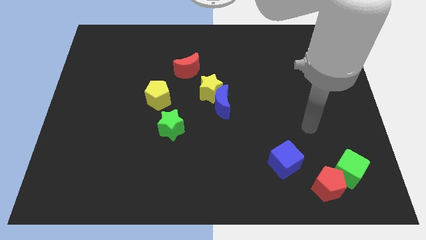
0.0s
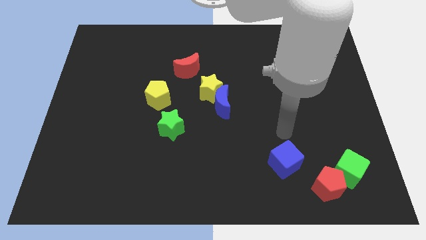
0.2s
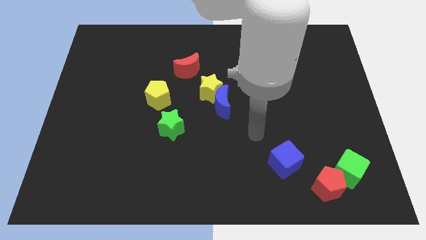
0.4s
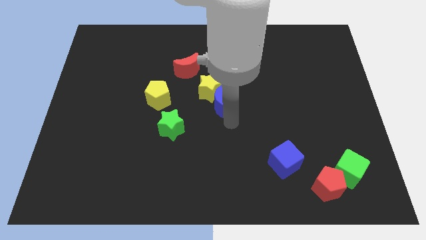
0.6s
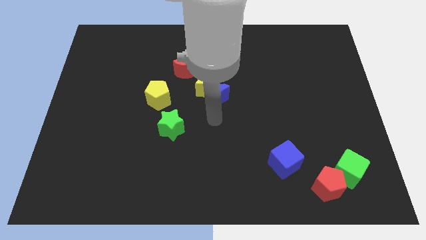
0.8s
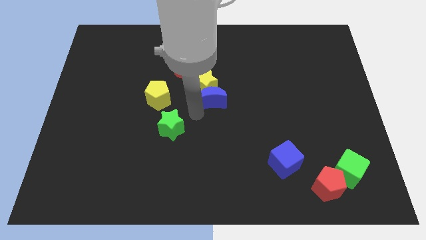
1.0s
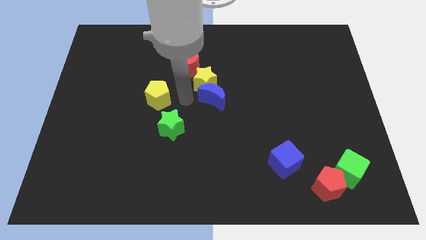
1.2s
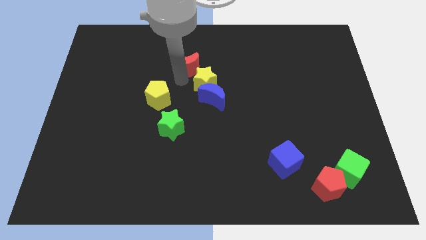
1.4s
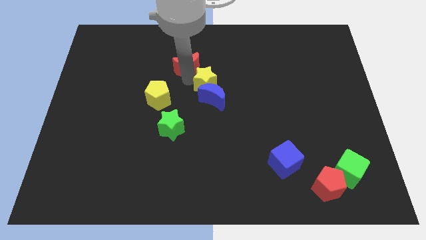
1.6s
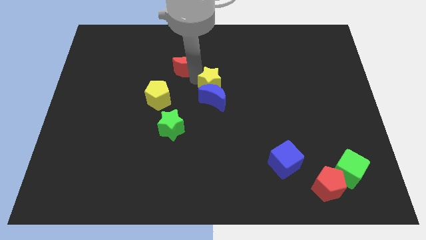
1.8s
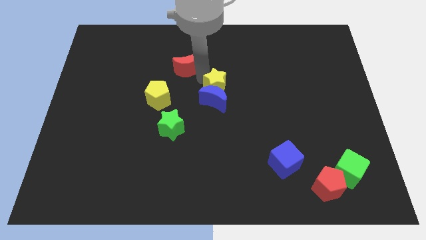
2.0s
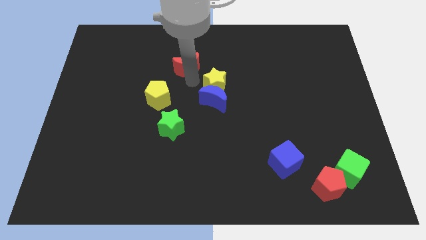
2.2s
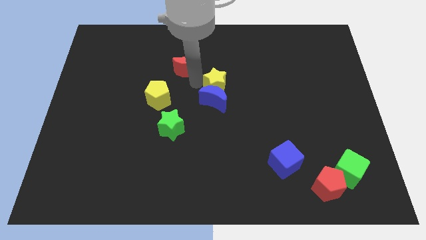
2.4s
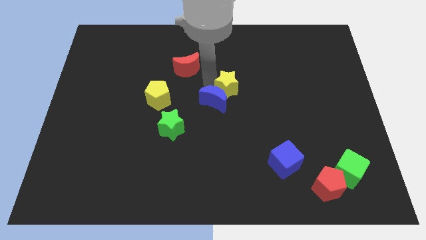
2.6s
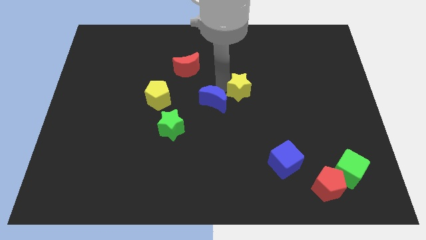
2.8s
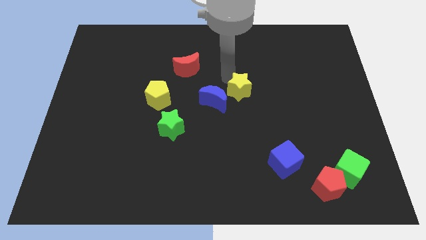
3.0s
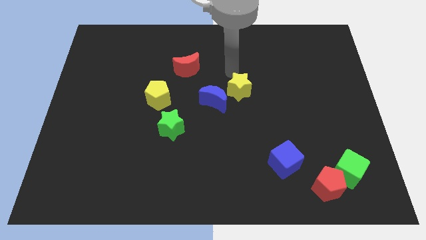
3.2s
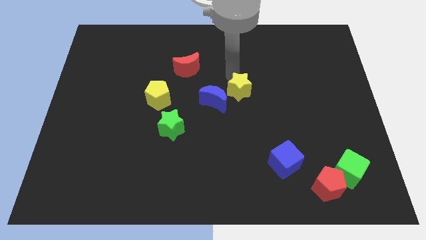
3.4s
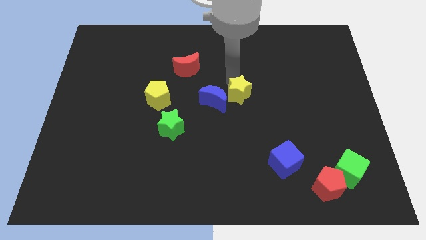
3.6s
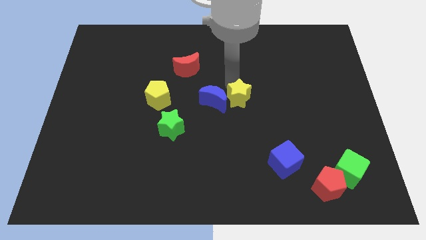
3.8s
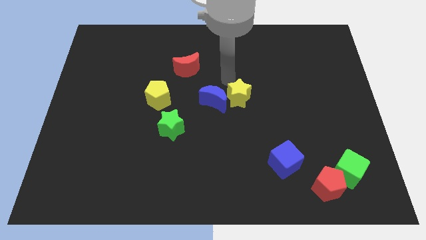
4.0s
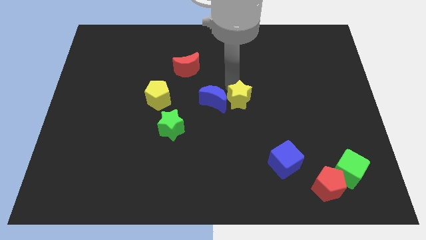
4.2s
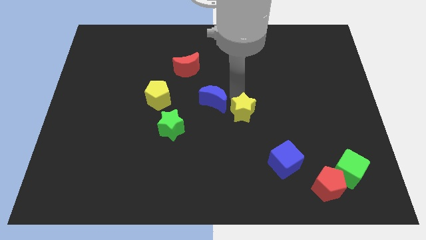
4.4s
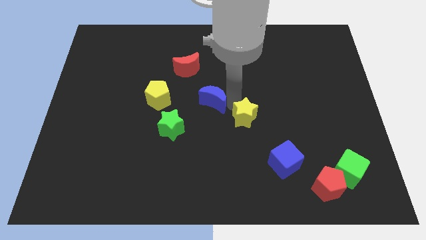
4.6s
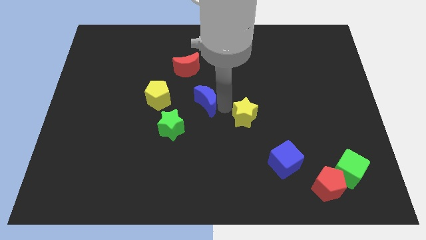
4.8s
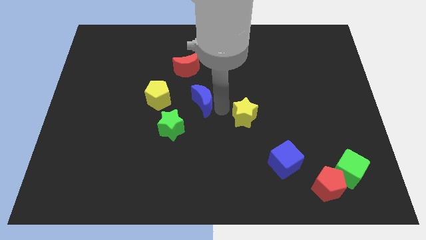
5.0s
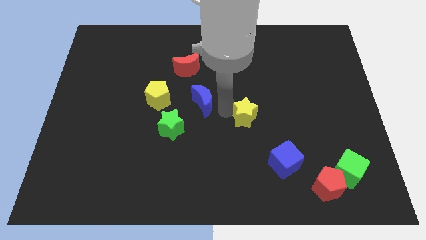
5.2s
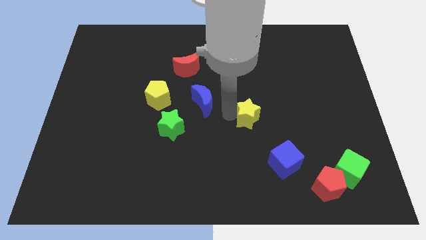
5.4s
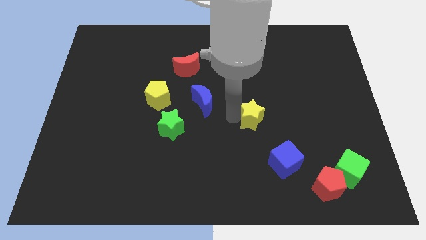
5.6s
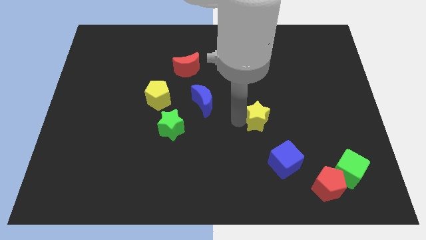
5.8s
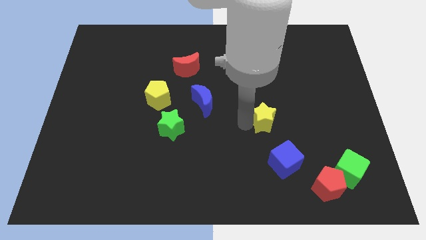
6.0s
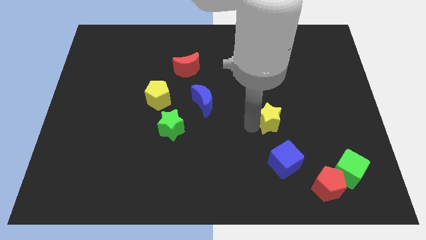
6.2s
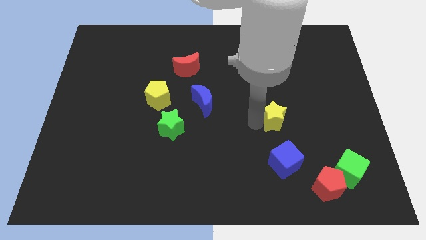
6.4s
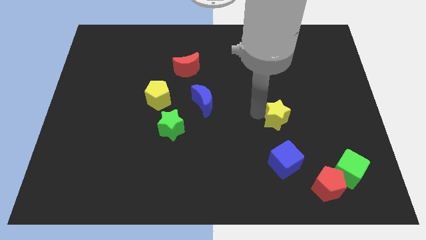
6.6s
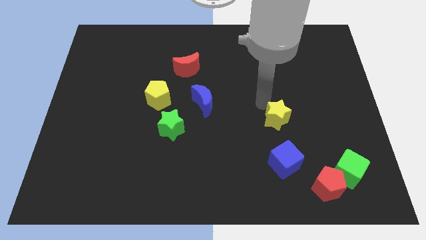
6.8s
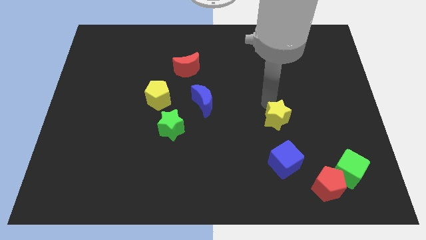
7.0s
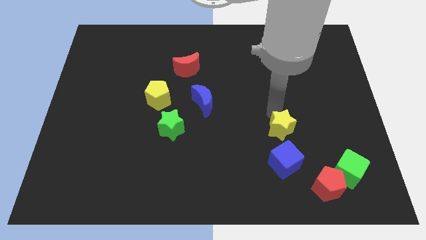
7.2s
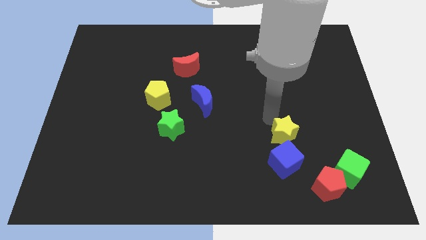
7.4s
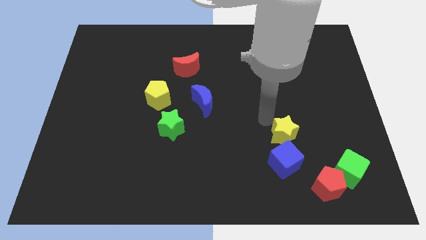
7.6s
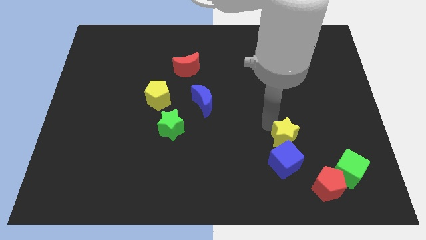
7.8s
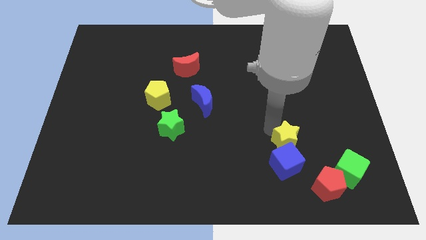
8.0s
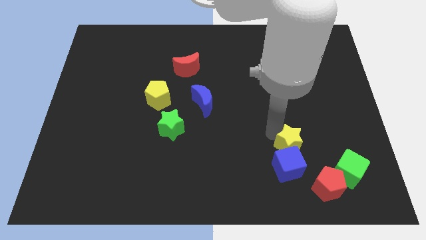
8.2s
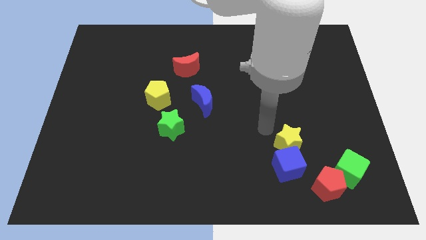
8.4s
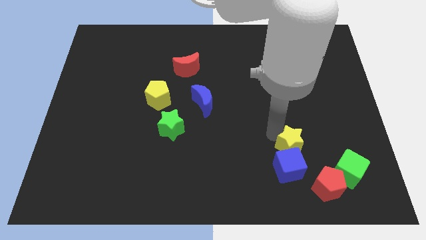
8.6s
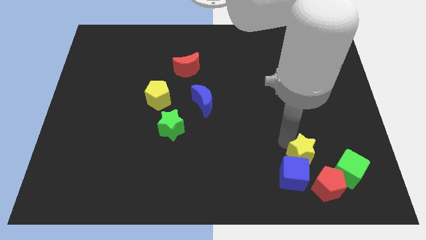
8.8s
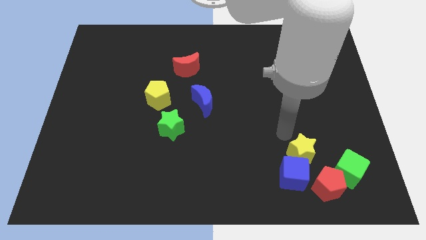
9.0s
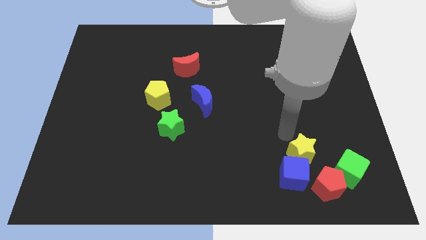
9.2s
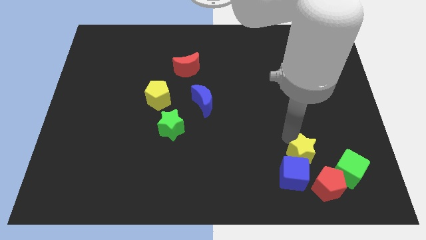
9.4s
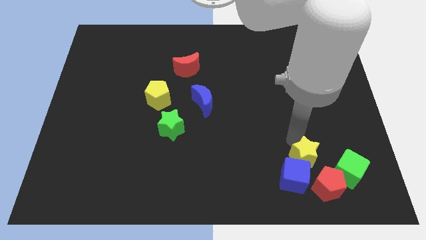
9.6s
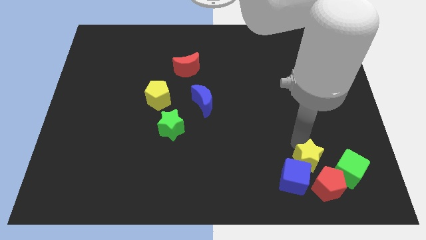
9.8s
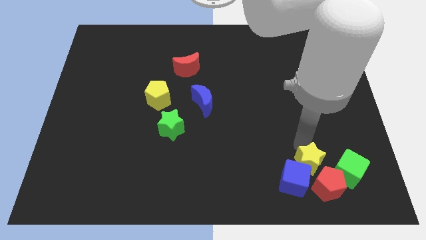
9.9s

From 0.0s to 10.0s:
slide the yellow star to the red pentagon

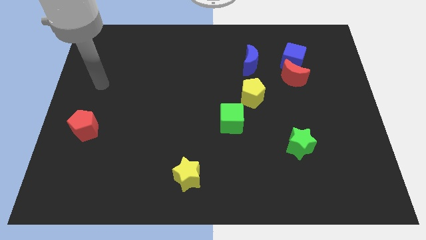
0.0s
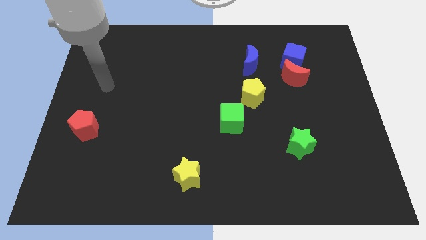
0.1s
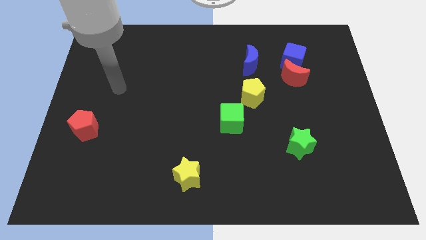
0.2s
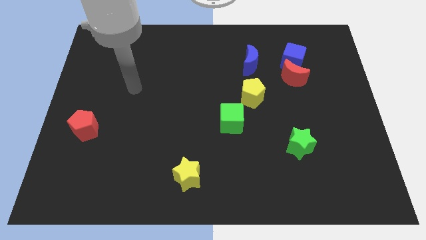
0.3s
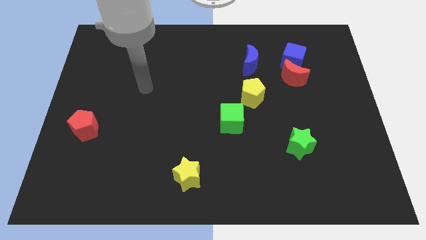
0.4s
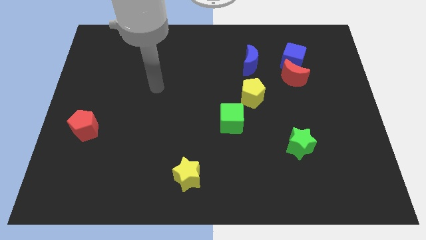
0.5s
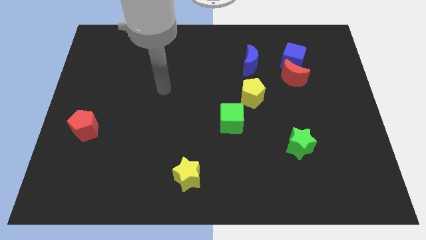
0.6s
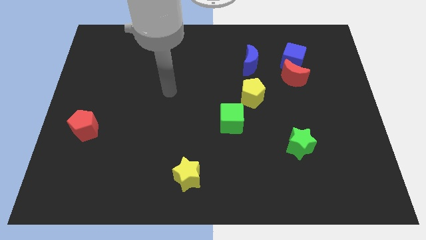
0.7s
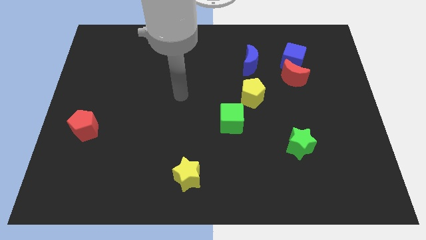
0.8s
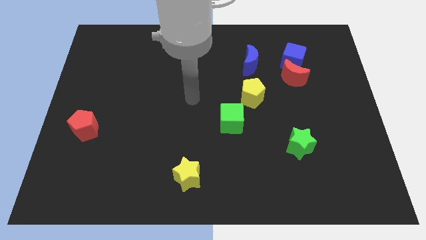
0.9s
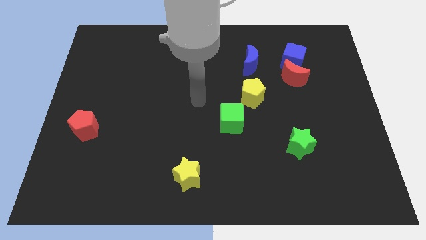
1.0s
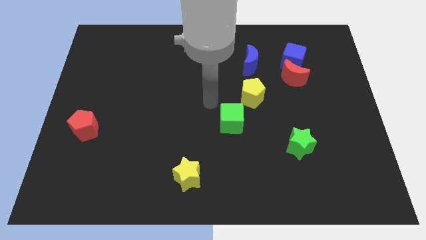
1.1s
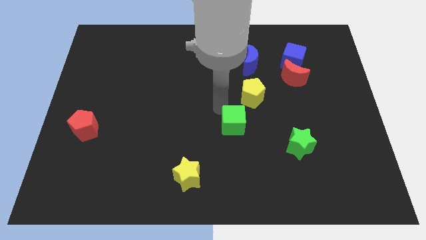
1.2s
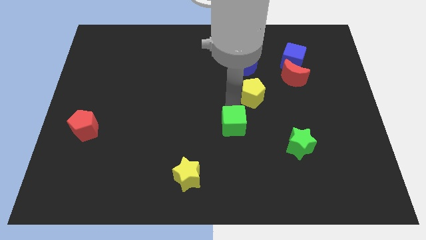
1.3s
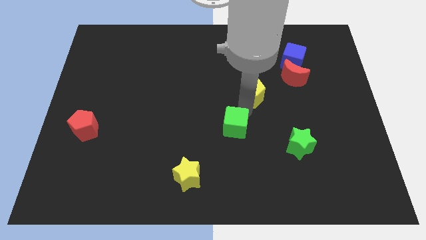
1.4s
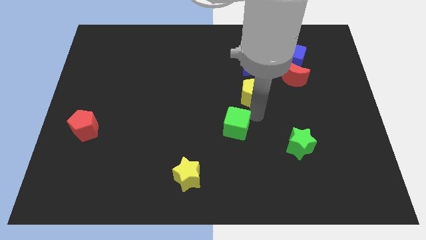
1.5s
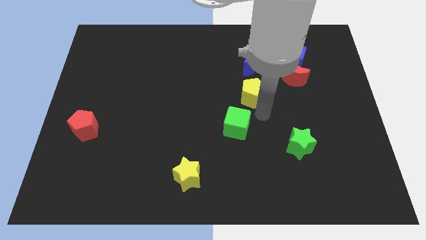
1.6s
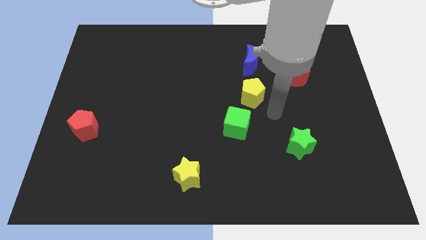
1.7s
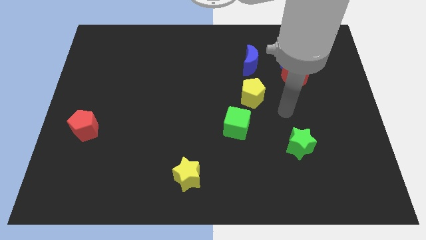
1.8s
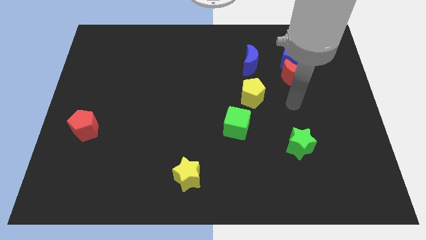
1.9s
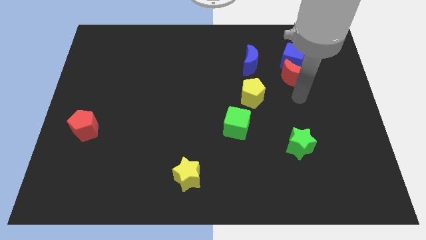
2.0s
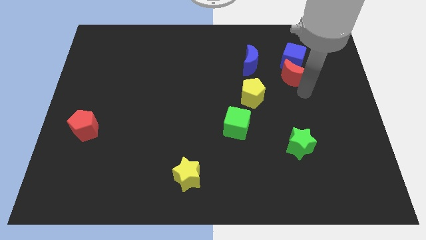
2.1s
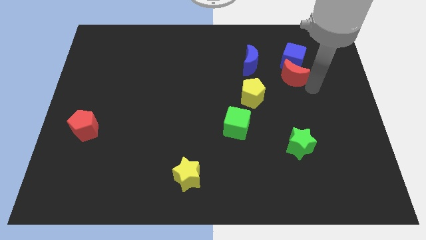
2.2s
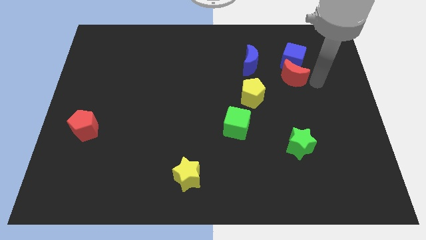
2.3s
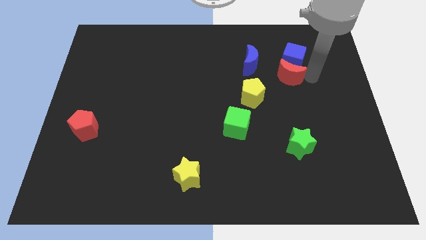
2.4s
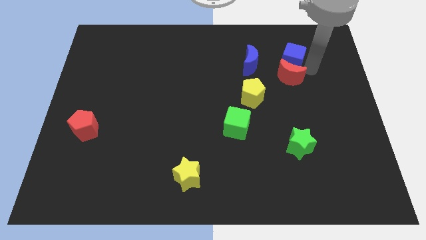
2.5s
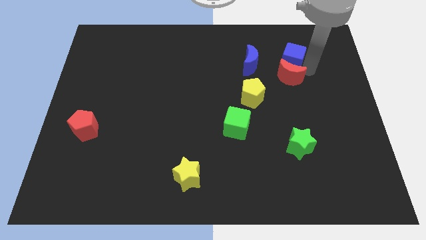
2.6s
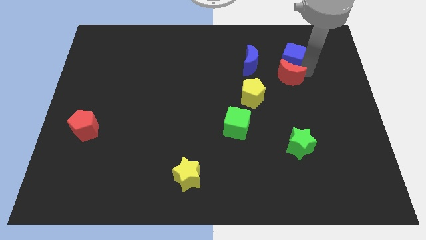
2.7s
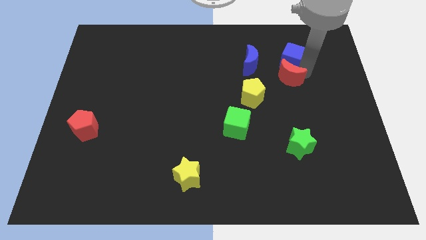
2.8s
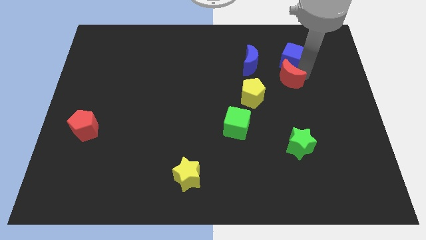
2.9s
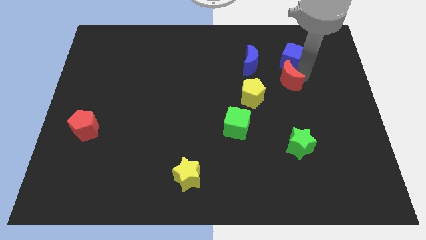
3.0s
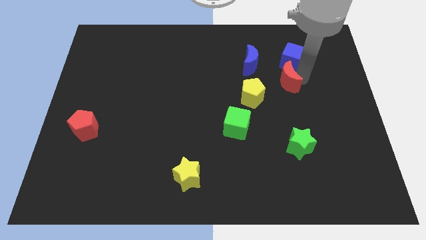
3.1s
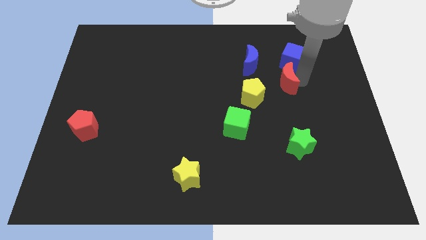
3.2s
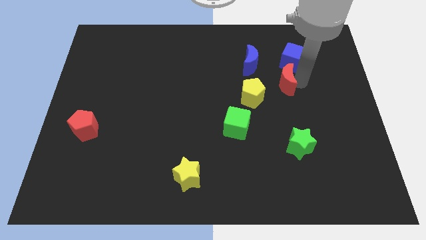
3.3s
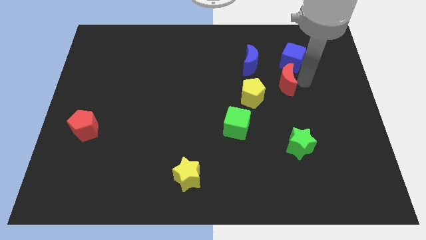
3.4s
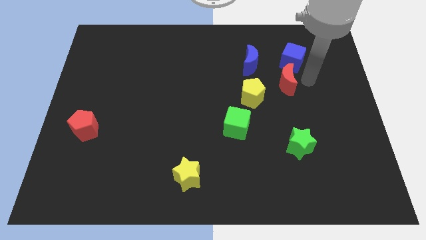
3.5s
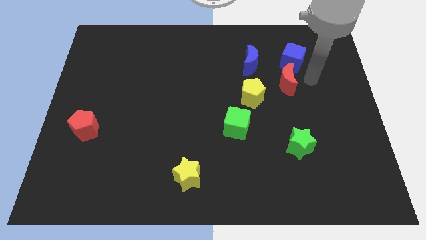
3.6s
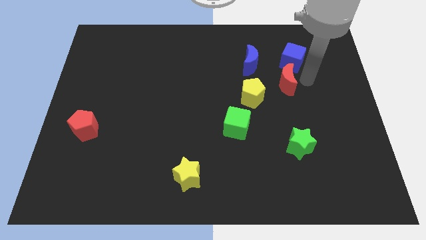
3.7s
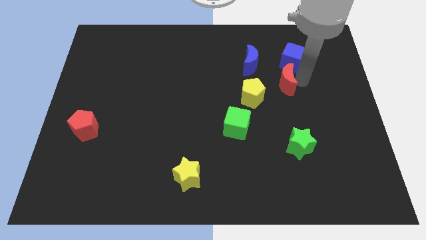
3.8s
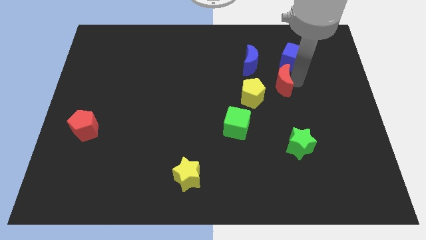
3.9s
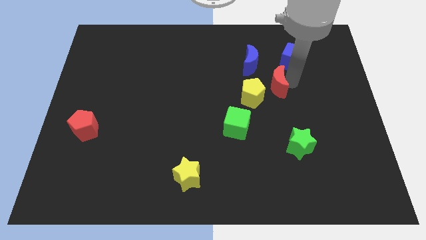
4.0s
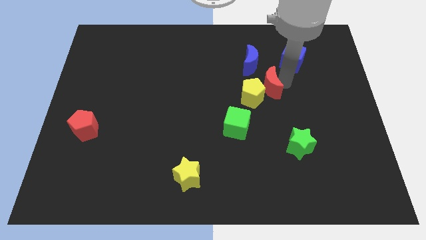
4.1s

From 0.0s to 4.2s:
slide the red moon to the yellow pentagon
